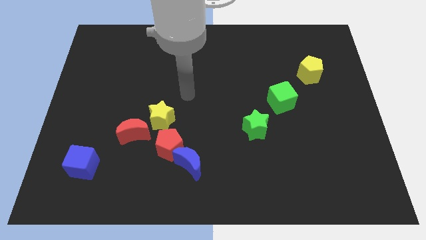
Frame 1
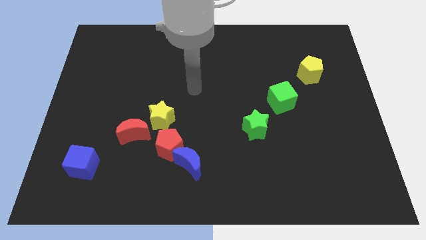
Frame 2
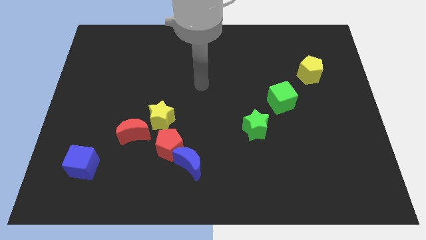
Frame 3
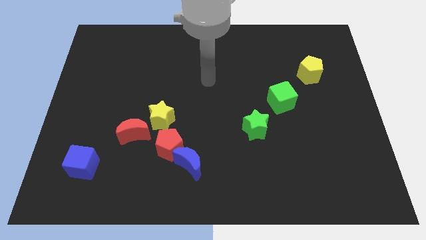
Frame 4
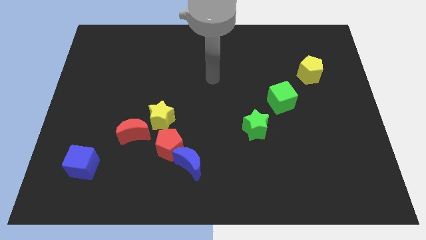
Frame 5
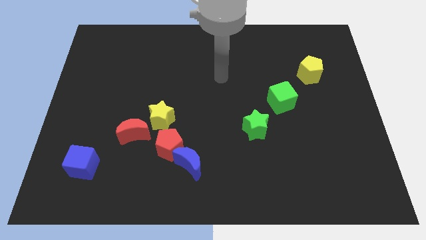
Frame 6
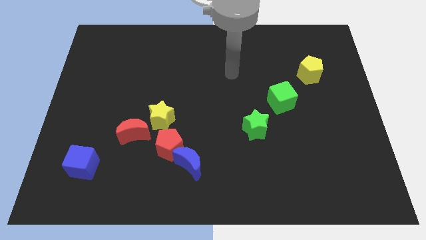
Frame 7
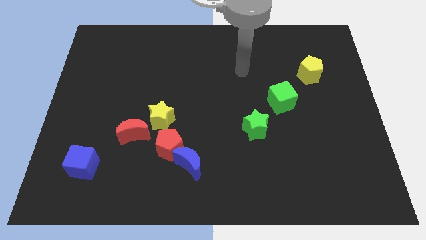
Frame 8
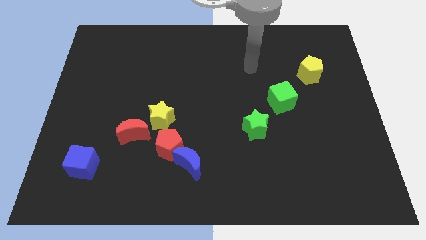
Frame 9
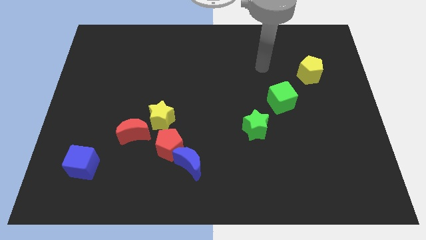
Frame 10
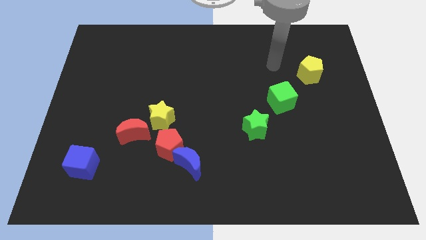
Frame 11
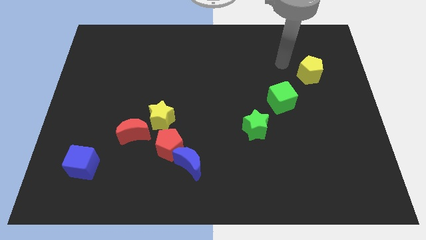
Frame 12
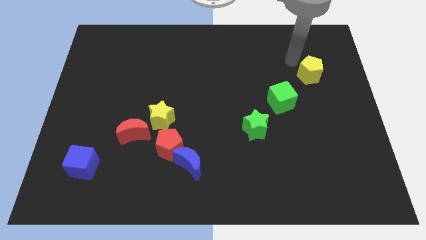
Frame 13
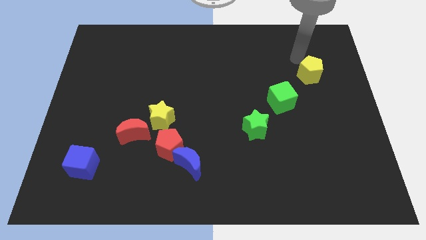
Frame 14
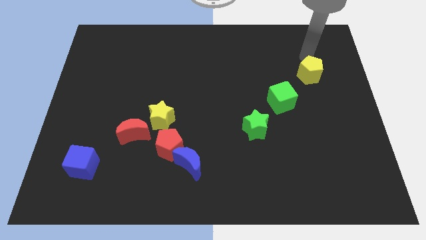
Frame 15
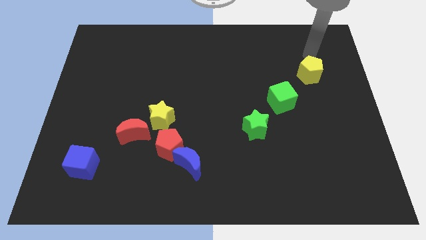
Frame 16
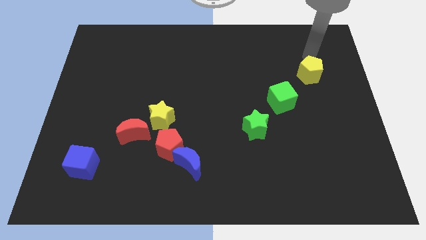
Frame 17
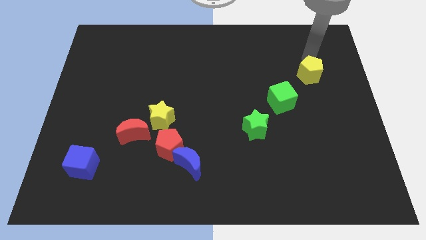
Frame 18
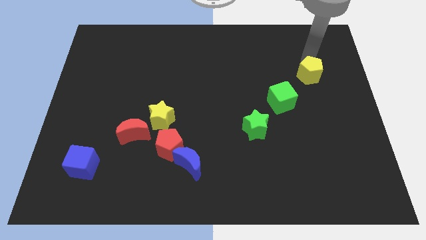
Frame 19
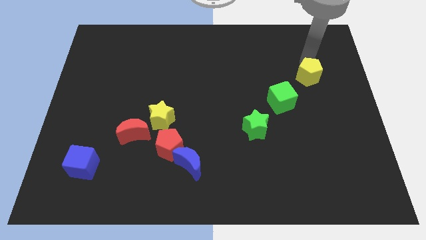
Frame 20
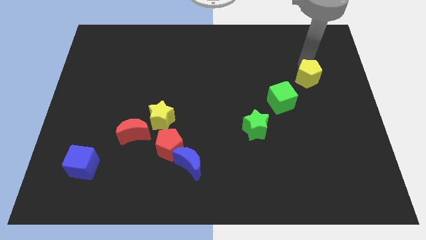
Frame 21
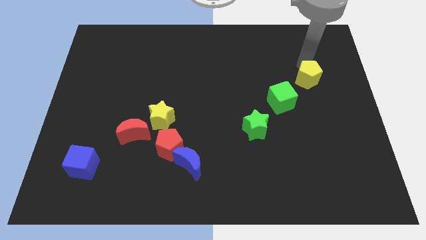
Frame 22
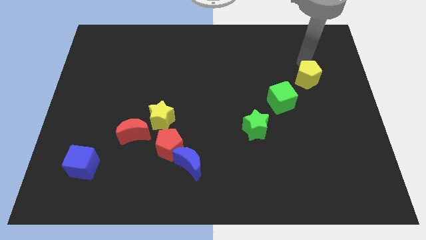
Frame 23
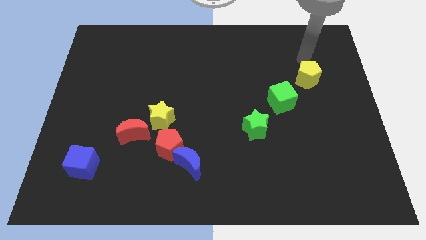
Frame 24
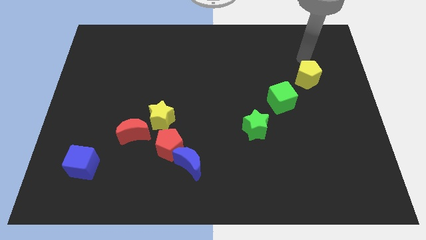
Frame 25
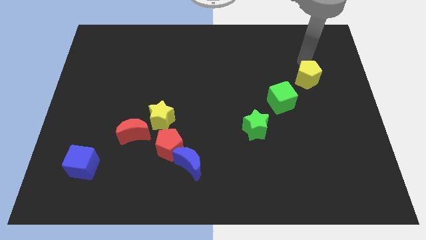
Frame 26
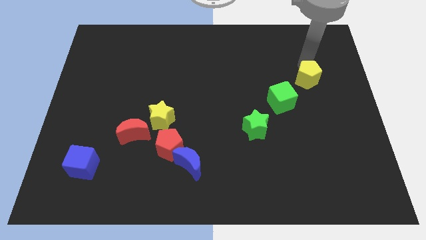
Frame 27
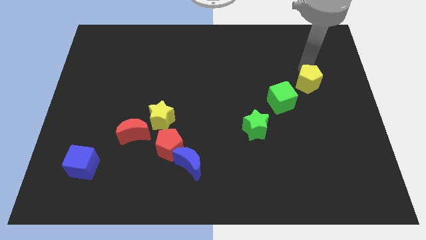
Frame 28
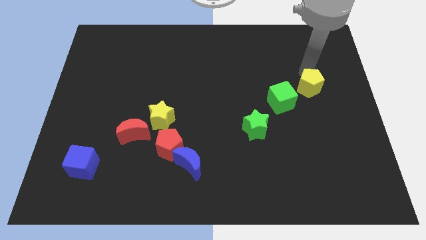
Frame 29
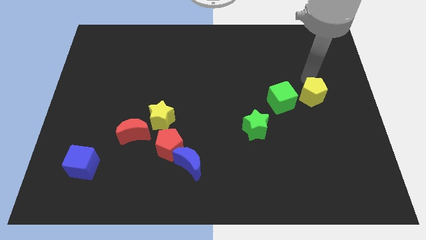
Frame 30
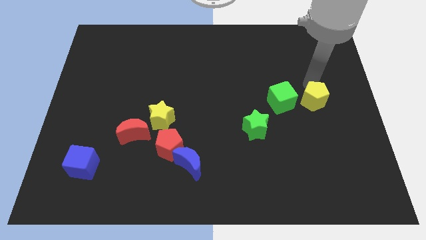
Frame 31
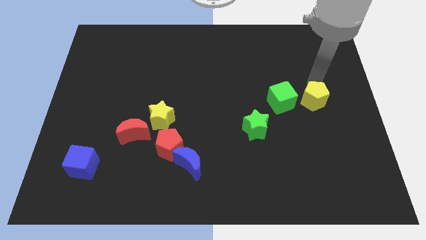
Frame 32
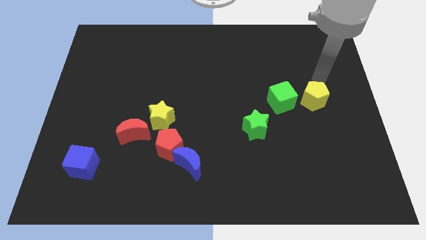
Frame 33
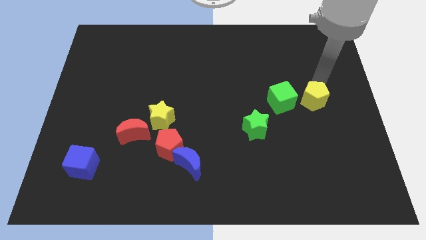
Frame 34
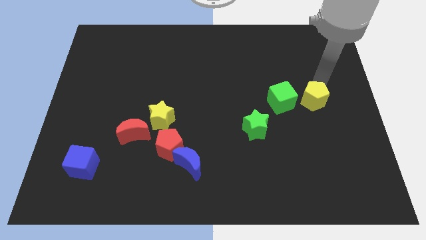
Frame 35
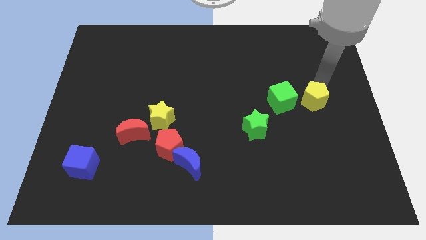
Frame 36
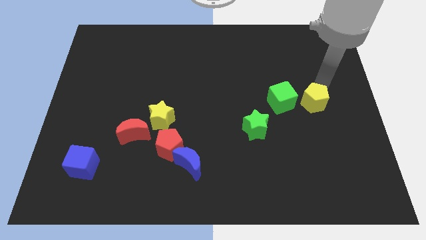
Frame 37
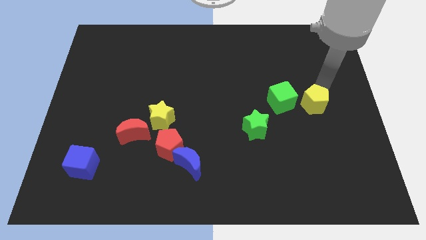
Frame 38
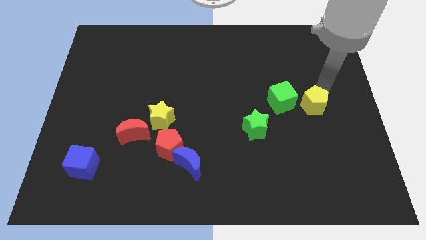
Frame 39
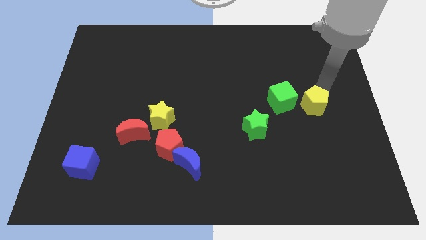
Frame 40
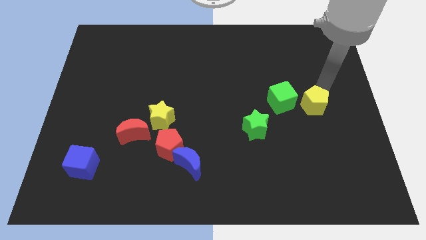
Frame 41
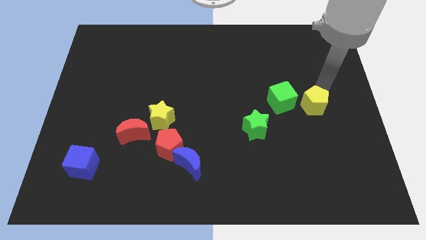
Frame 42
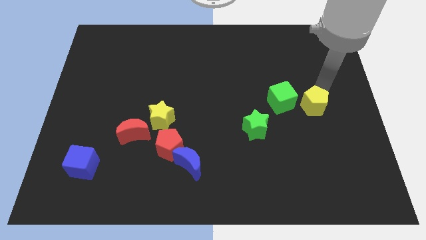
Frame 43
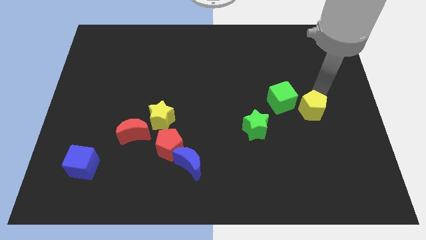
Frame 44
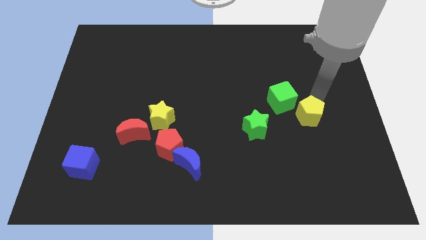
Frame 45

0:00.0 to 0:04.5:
push the yellow pentagon just right of the green star

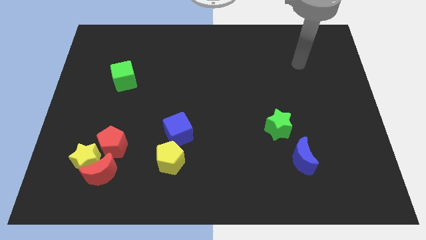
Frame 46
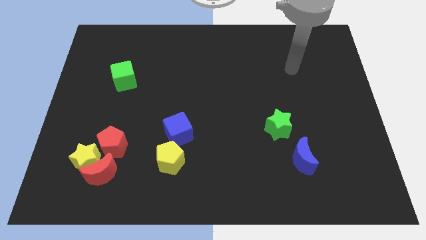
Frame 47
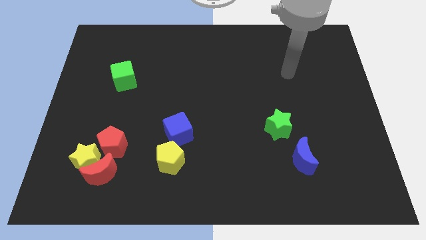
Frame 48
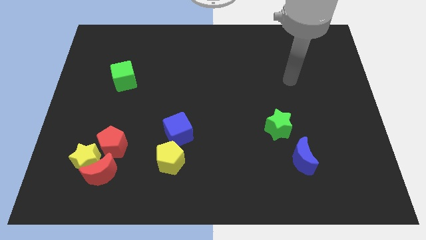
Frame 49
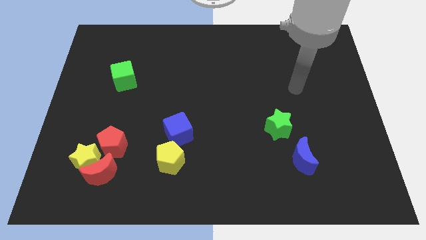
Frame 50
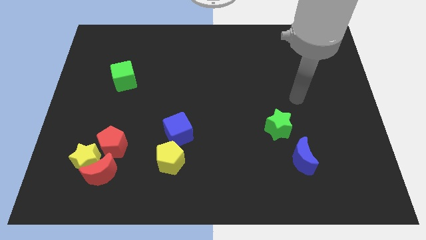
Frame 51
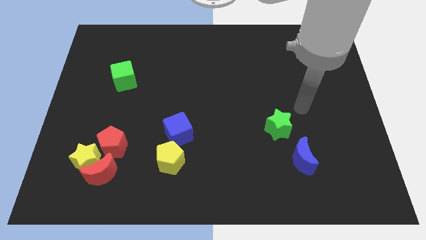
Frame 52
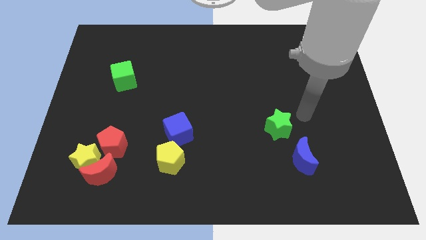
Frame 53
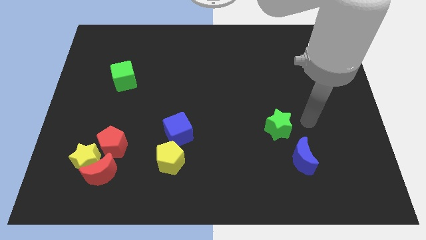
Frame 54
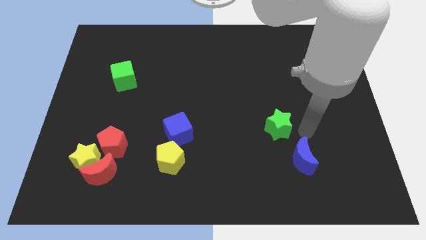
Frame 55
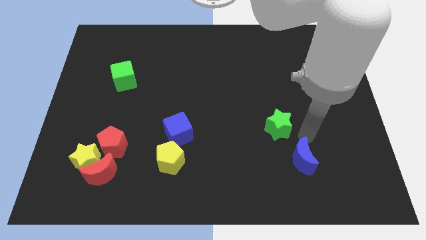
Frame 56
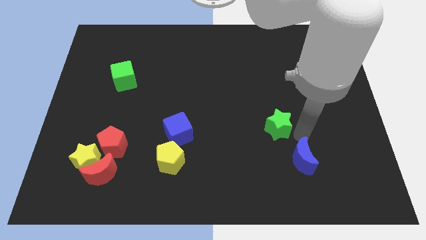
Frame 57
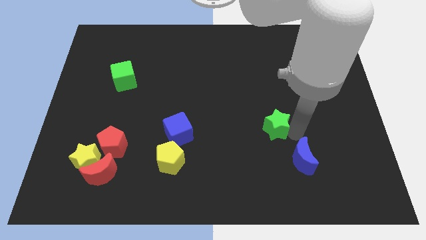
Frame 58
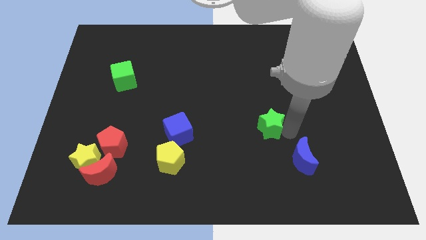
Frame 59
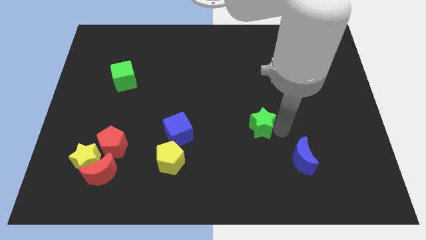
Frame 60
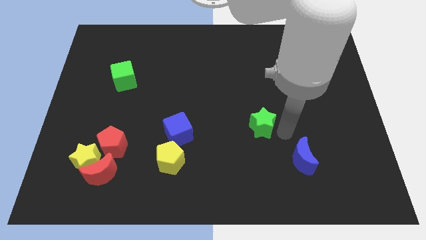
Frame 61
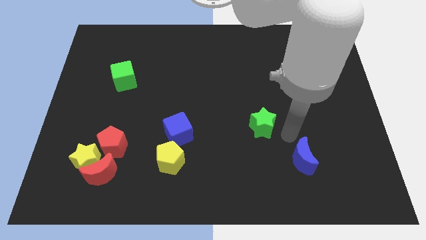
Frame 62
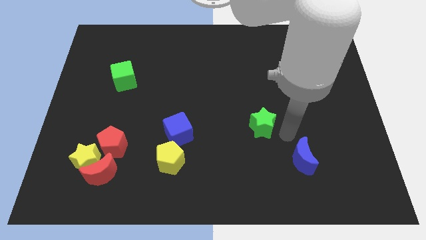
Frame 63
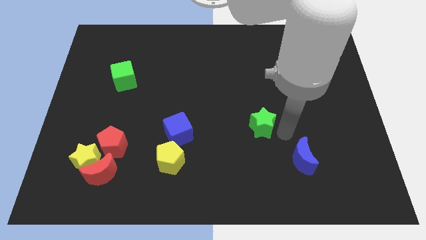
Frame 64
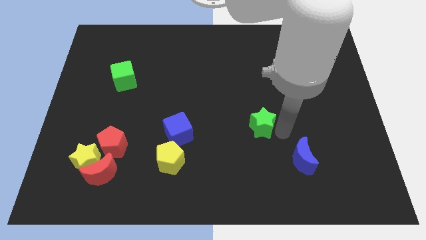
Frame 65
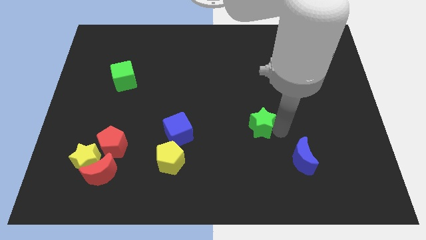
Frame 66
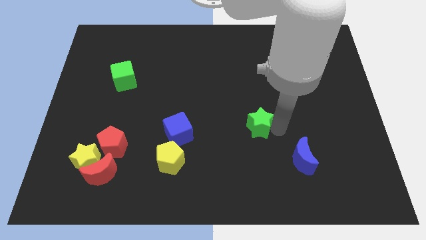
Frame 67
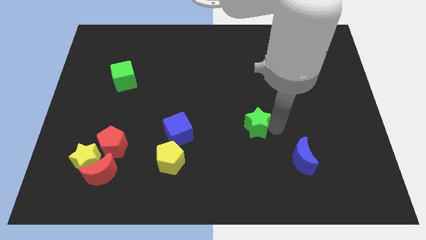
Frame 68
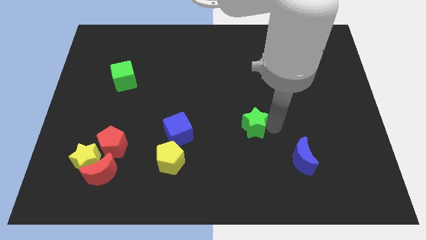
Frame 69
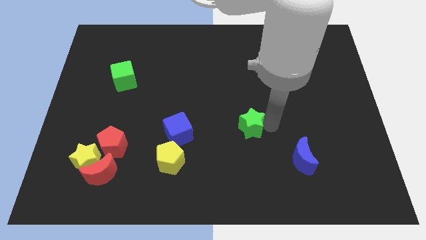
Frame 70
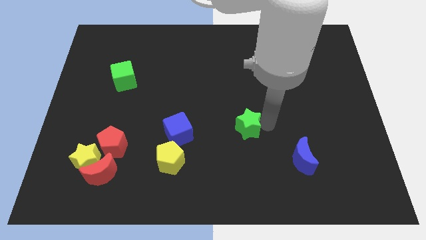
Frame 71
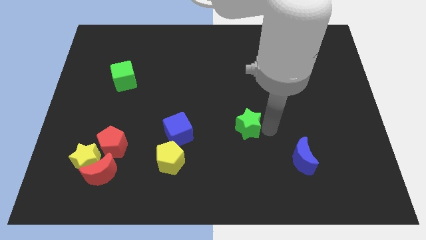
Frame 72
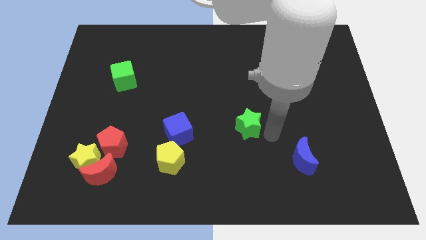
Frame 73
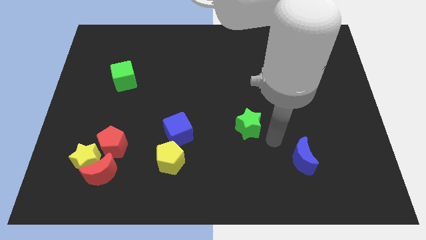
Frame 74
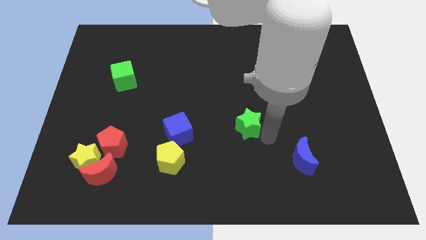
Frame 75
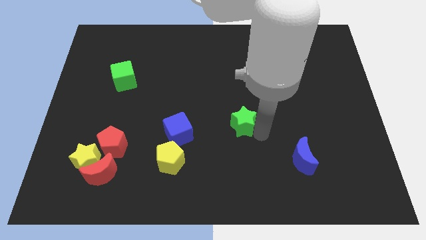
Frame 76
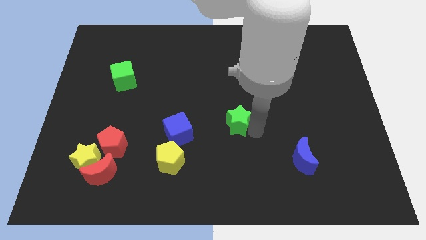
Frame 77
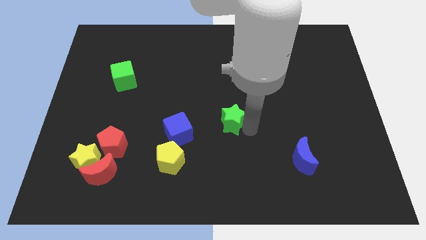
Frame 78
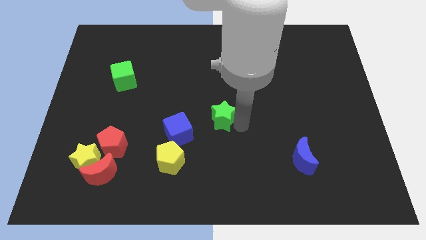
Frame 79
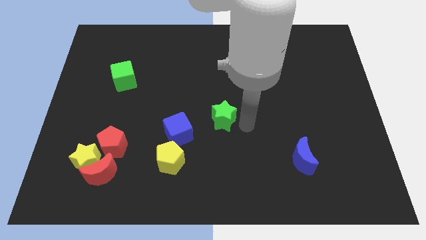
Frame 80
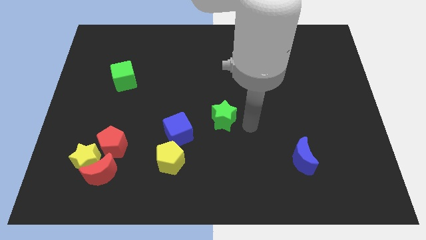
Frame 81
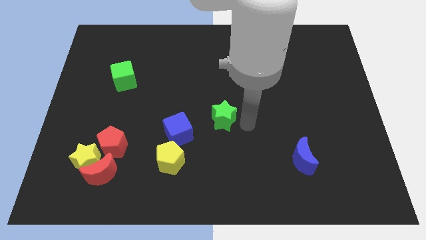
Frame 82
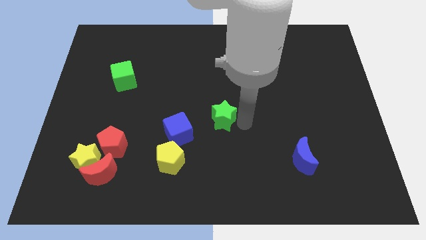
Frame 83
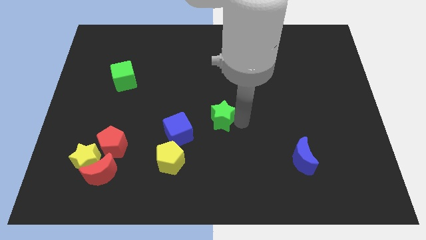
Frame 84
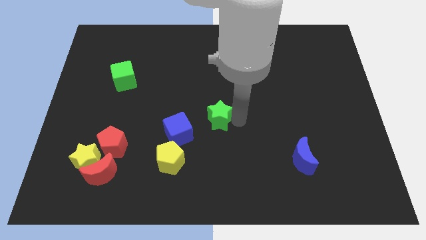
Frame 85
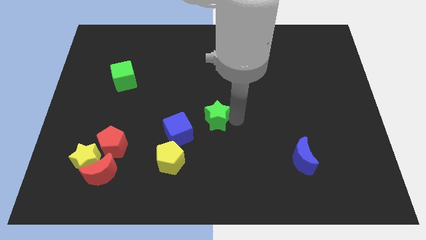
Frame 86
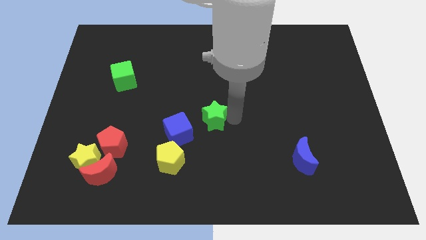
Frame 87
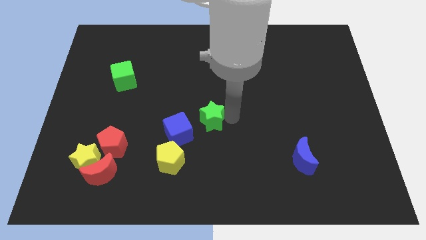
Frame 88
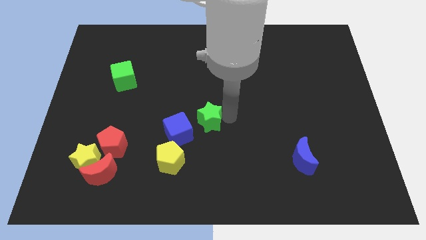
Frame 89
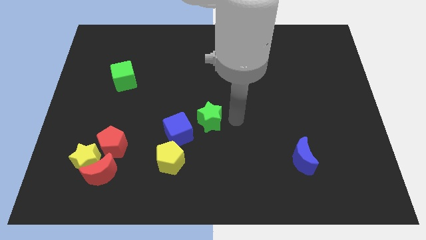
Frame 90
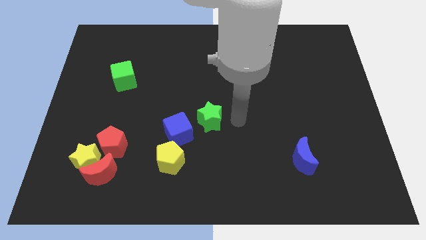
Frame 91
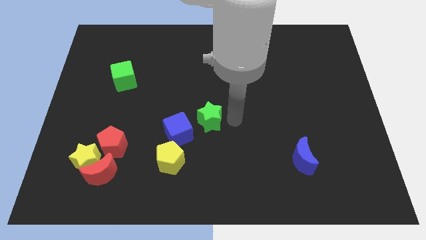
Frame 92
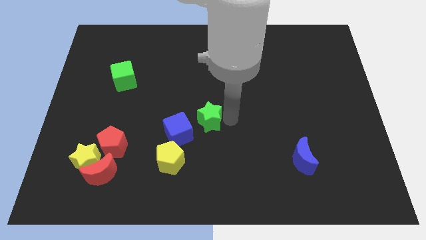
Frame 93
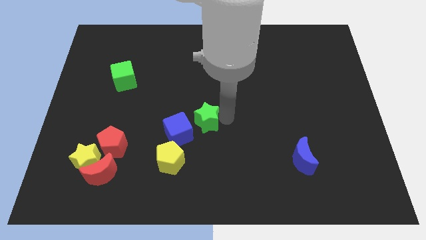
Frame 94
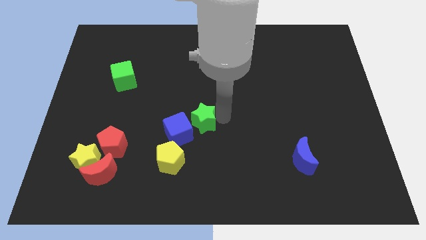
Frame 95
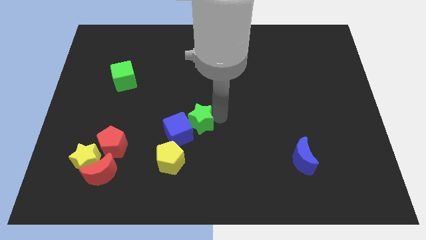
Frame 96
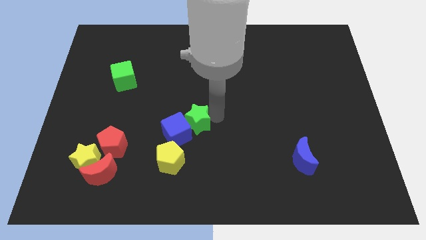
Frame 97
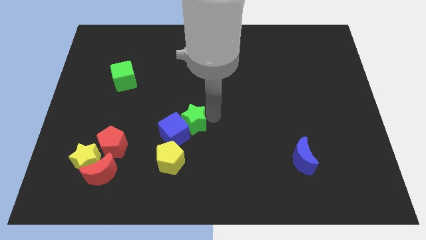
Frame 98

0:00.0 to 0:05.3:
put the green star to the top of the yellow pentagon
